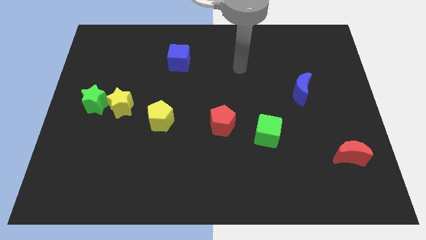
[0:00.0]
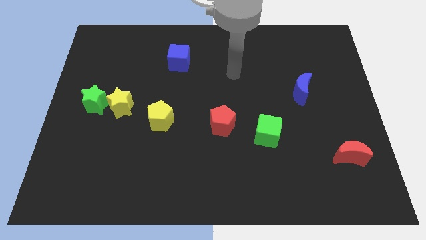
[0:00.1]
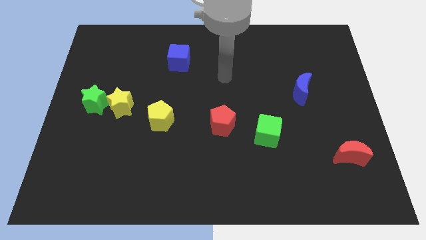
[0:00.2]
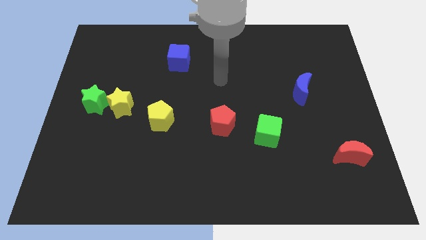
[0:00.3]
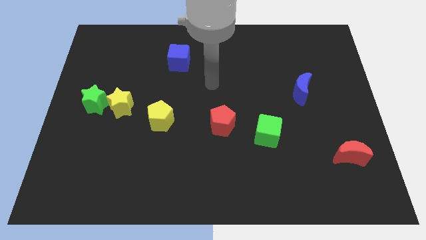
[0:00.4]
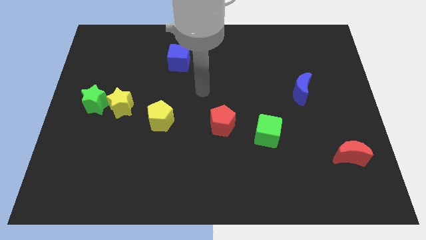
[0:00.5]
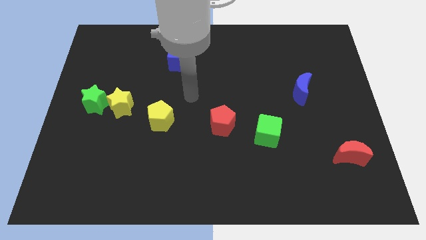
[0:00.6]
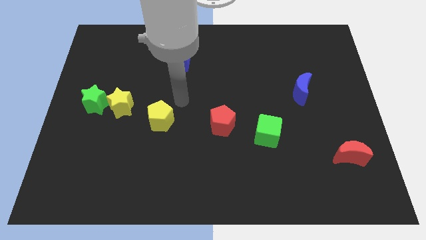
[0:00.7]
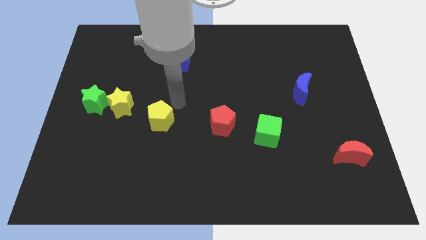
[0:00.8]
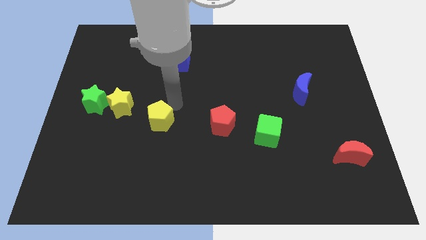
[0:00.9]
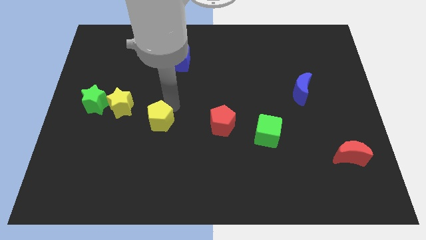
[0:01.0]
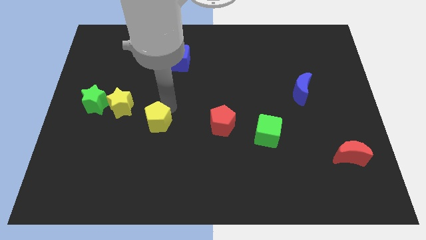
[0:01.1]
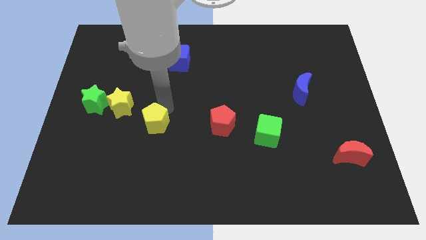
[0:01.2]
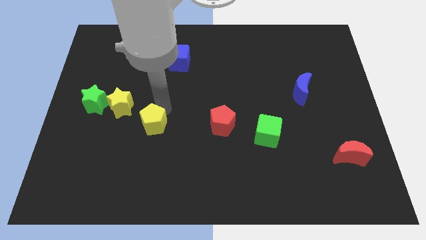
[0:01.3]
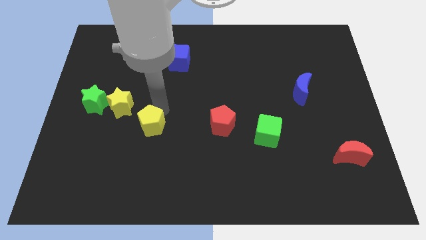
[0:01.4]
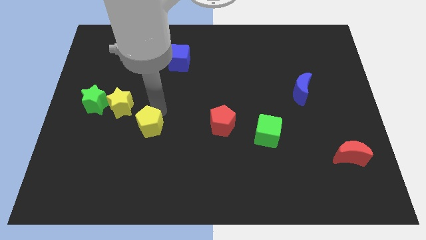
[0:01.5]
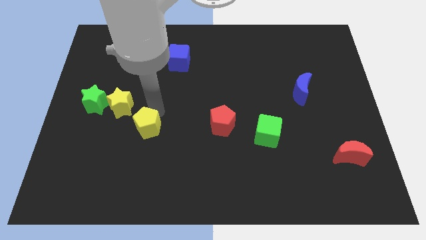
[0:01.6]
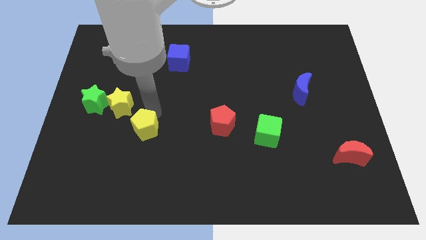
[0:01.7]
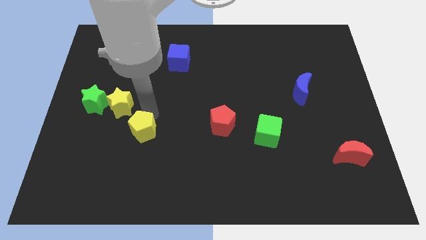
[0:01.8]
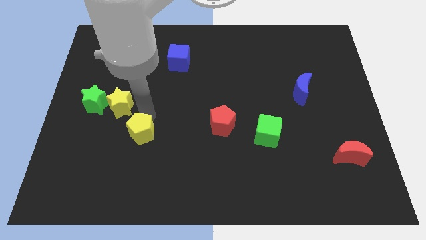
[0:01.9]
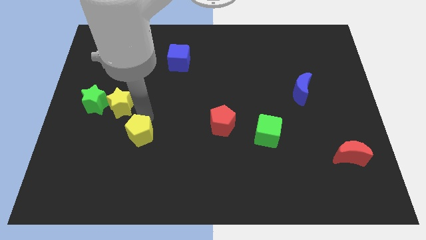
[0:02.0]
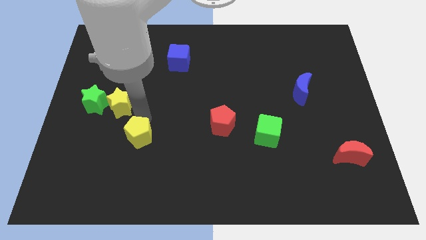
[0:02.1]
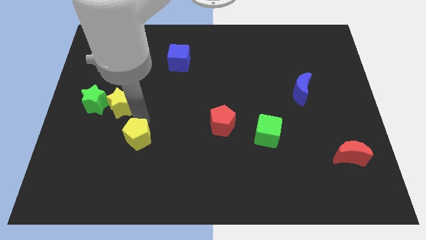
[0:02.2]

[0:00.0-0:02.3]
slightly slide the yellow pentagon downwards and left diagonally

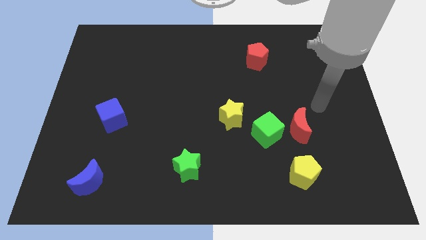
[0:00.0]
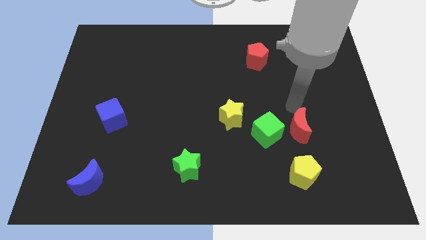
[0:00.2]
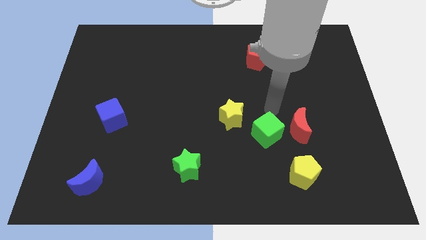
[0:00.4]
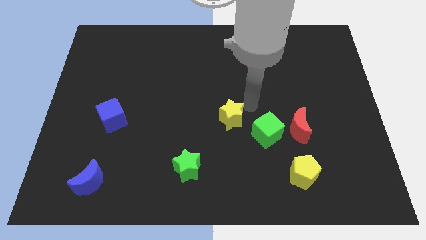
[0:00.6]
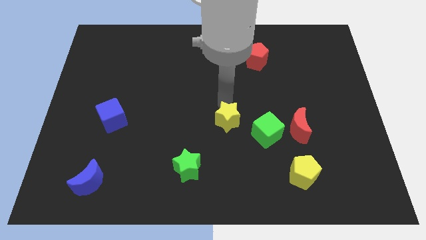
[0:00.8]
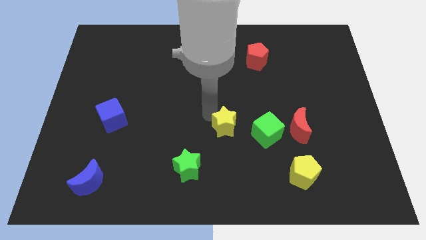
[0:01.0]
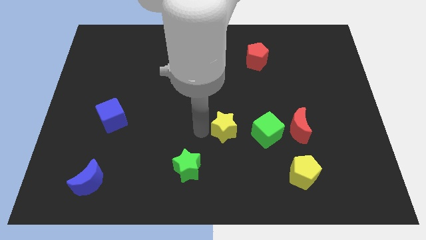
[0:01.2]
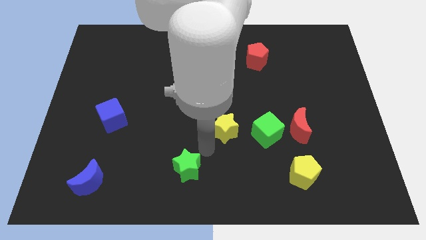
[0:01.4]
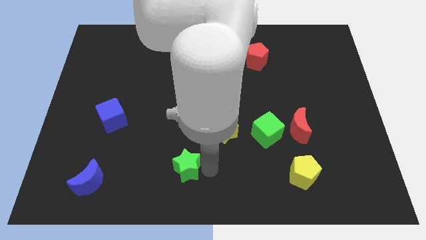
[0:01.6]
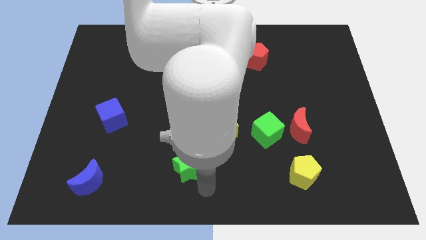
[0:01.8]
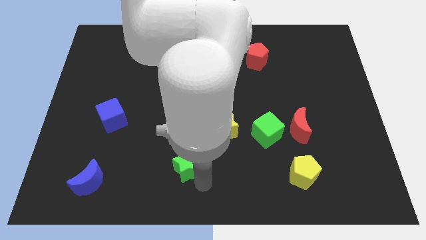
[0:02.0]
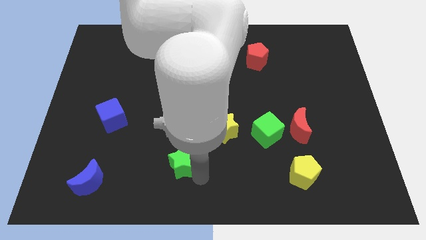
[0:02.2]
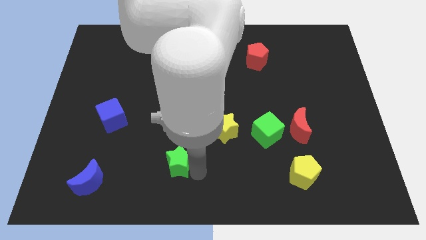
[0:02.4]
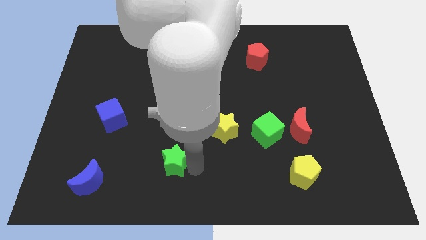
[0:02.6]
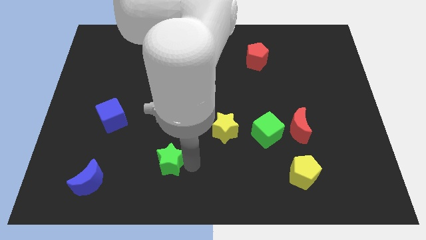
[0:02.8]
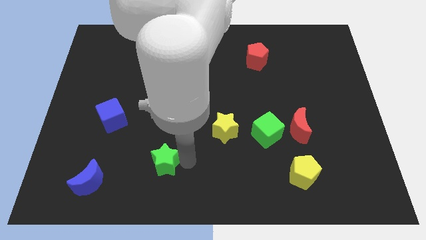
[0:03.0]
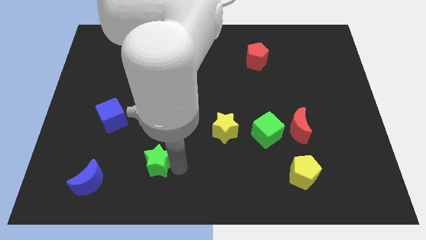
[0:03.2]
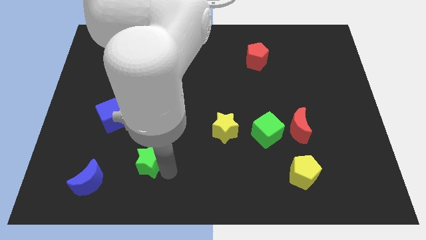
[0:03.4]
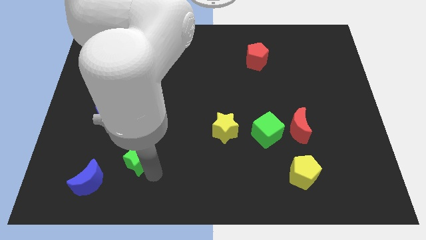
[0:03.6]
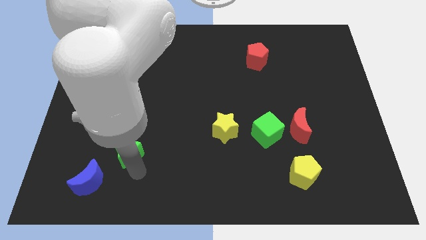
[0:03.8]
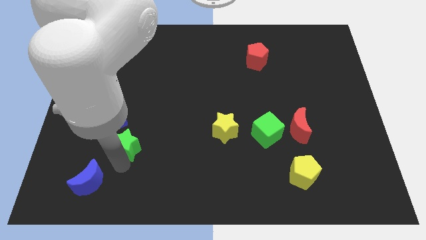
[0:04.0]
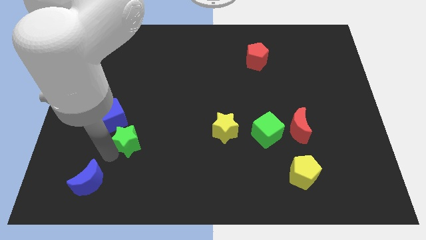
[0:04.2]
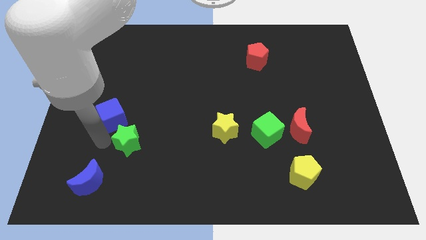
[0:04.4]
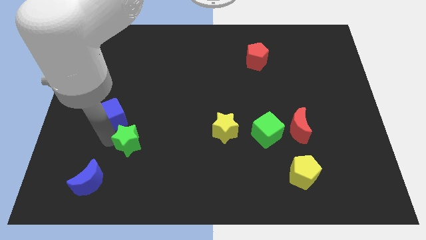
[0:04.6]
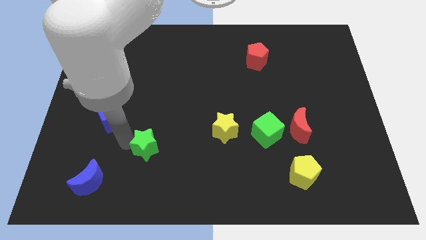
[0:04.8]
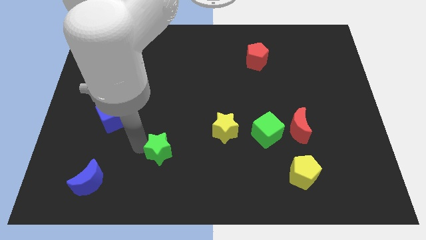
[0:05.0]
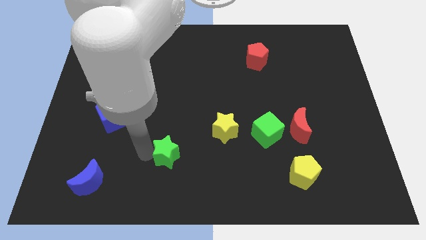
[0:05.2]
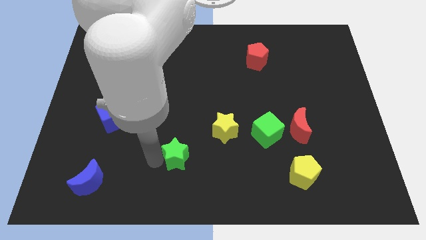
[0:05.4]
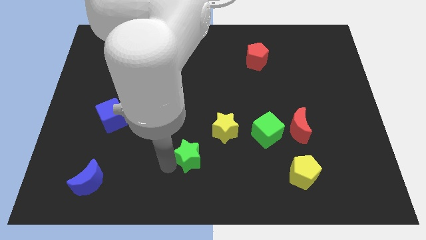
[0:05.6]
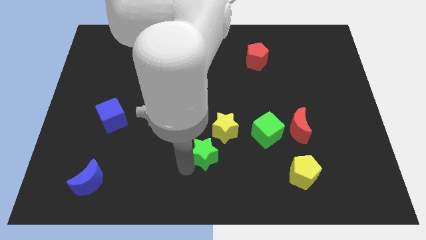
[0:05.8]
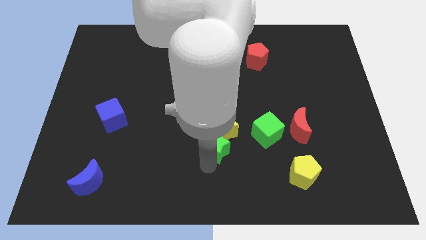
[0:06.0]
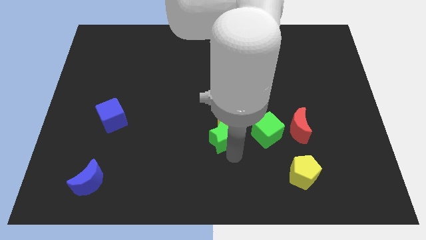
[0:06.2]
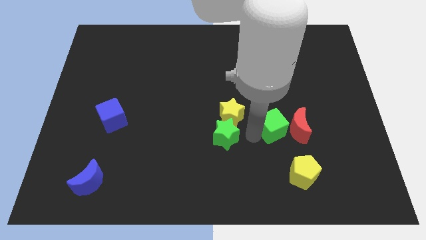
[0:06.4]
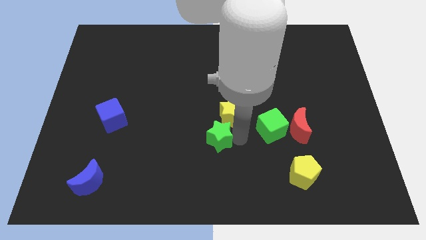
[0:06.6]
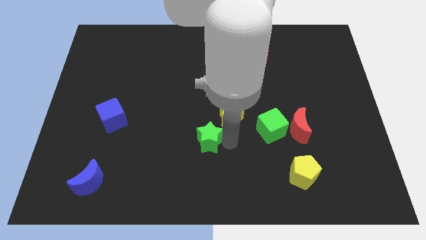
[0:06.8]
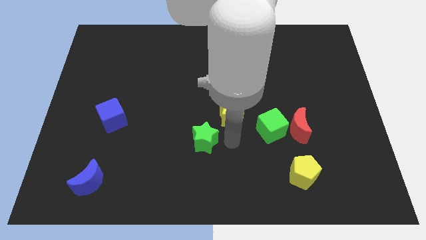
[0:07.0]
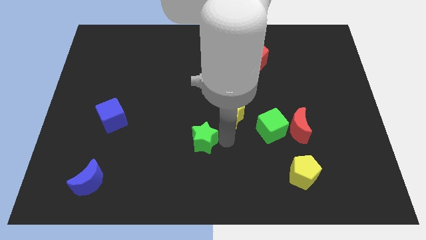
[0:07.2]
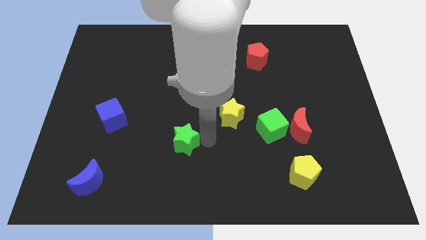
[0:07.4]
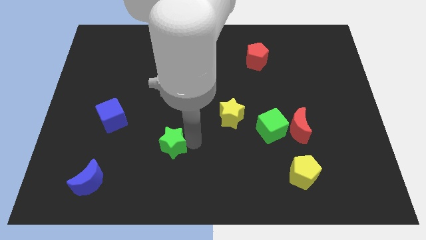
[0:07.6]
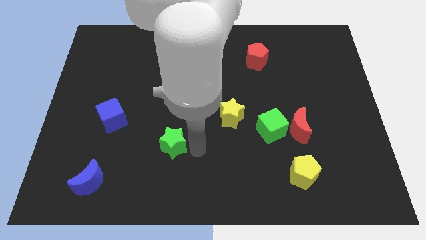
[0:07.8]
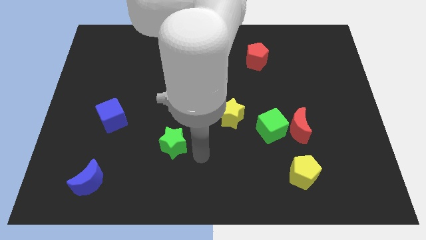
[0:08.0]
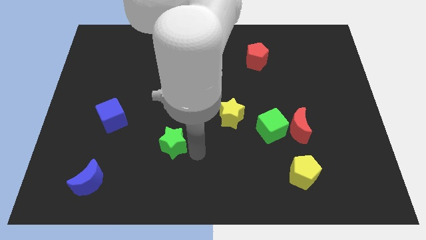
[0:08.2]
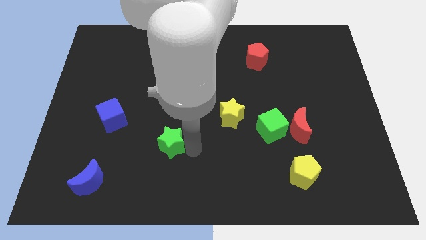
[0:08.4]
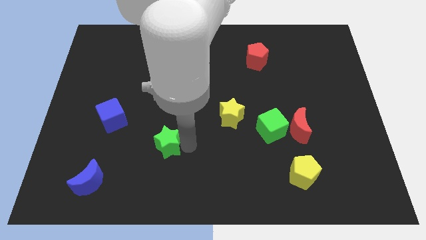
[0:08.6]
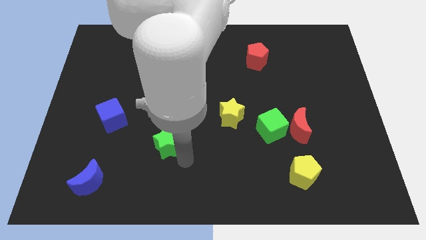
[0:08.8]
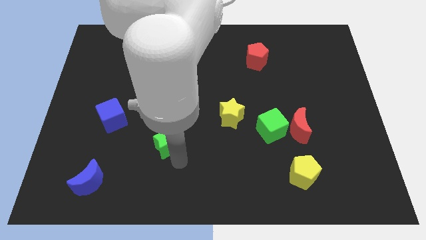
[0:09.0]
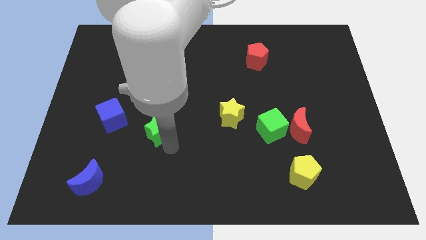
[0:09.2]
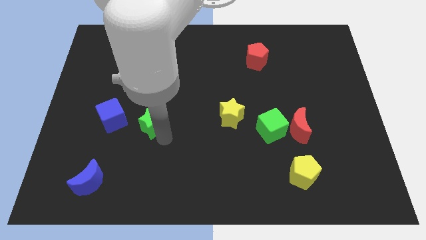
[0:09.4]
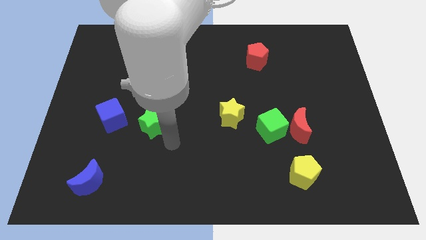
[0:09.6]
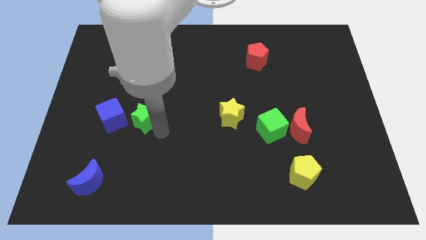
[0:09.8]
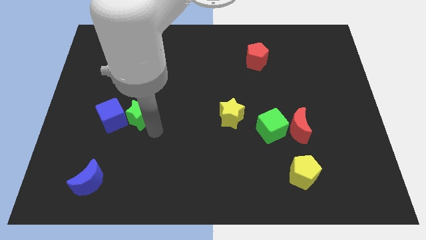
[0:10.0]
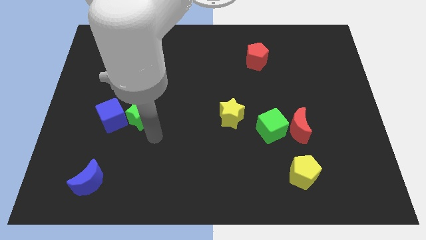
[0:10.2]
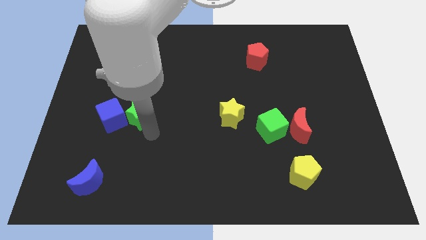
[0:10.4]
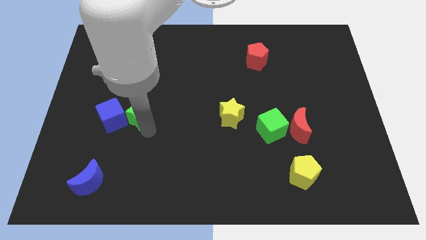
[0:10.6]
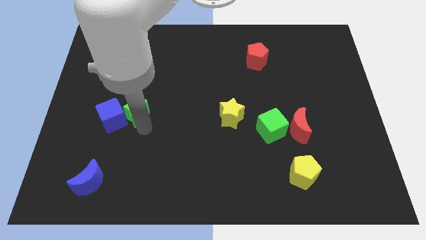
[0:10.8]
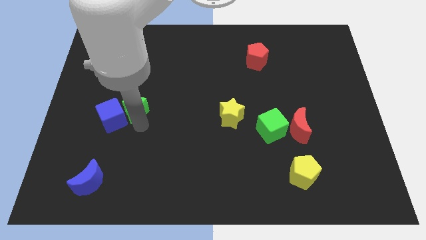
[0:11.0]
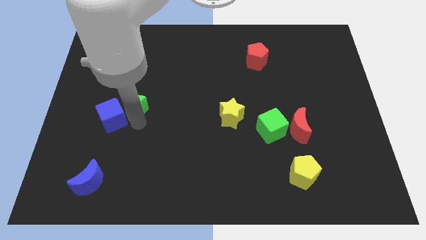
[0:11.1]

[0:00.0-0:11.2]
slide the green star diagonally up and to the left

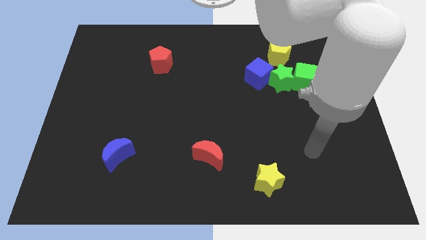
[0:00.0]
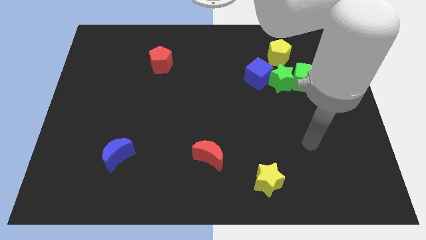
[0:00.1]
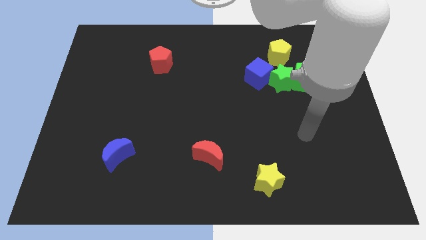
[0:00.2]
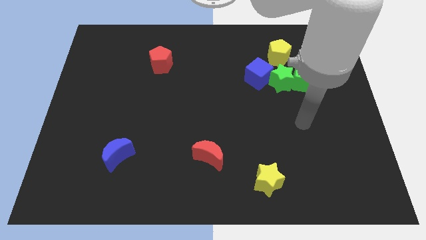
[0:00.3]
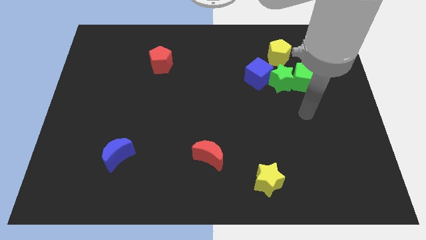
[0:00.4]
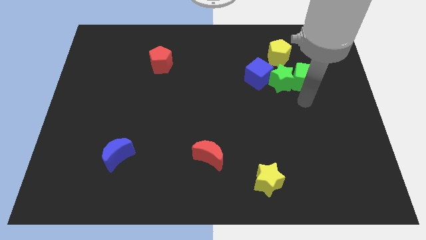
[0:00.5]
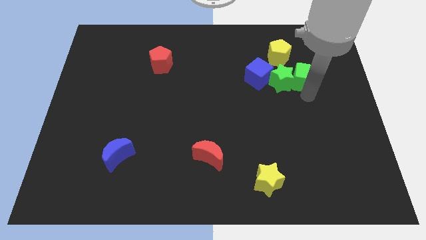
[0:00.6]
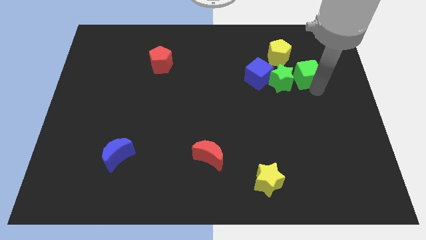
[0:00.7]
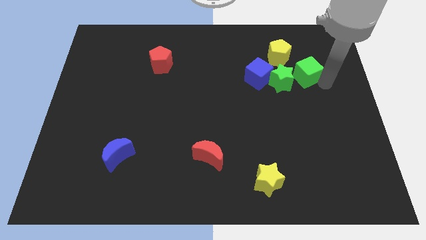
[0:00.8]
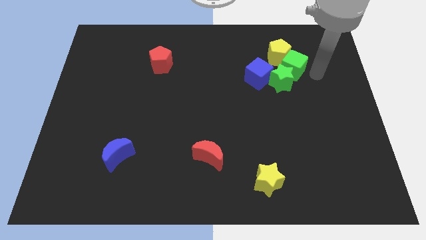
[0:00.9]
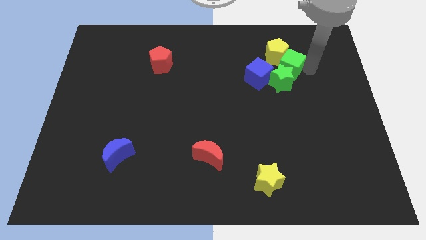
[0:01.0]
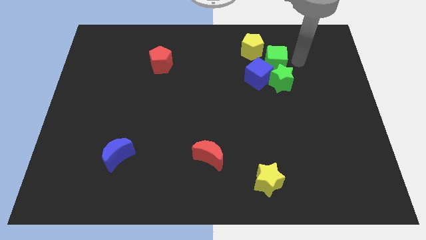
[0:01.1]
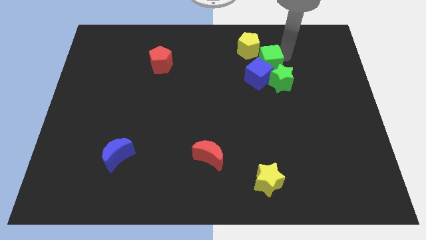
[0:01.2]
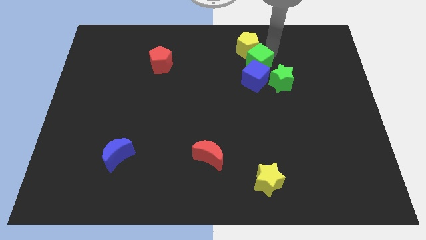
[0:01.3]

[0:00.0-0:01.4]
slightly move the green cube left
